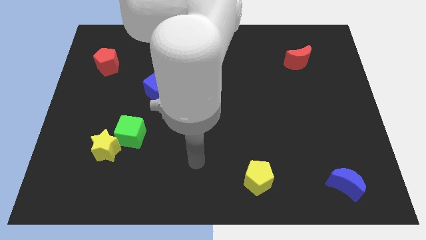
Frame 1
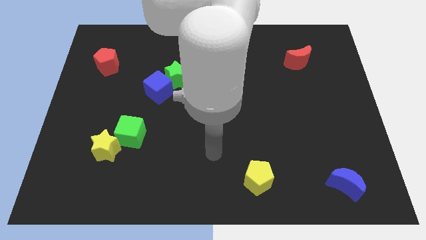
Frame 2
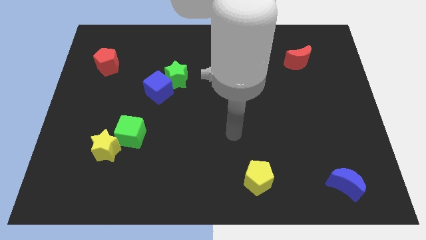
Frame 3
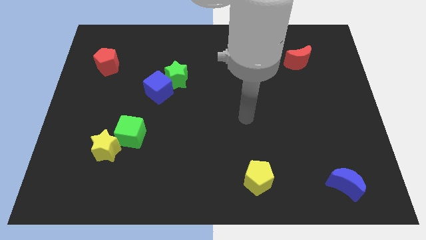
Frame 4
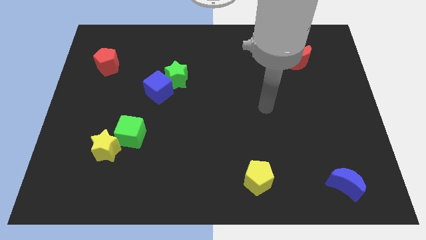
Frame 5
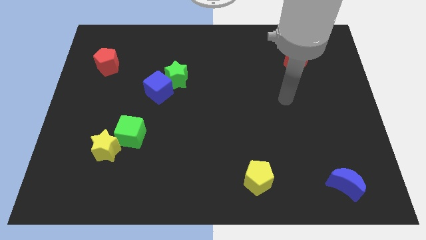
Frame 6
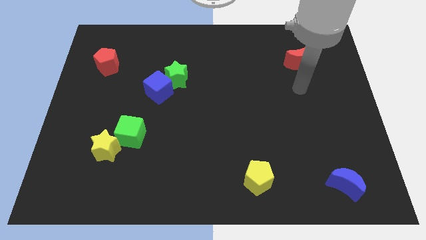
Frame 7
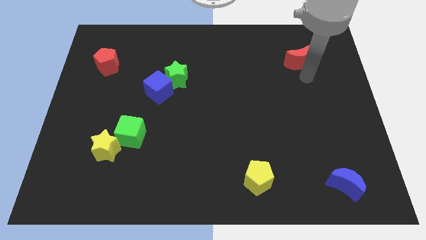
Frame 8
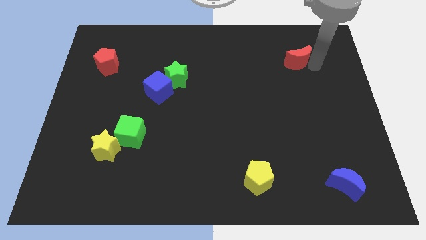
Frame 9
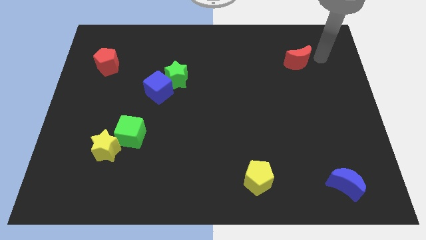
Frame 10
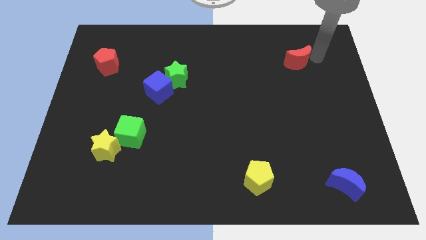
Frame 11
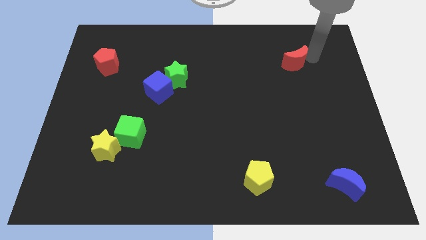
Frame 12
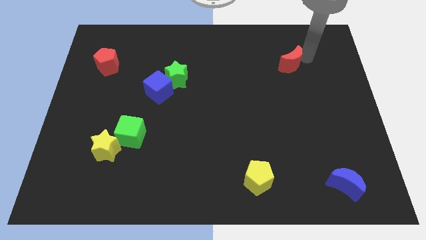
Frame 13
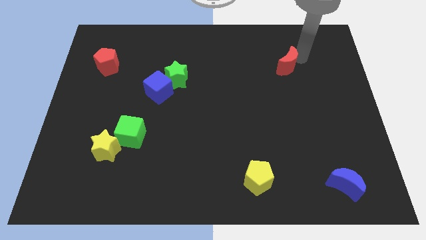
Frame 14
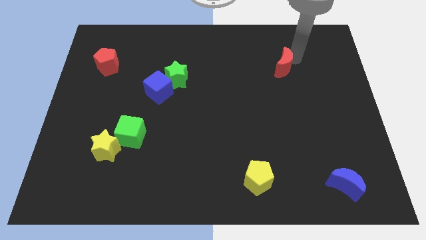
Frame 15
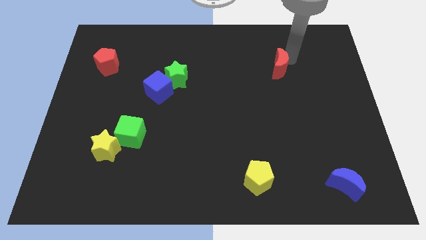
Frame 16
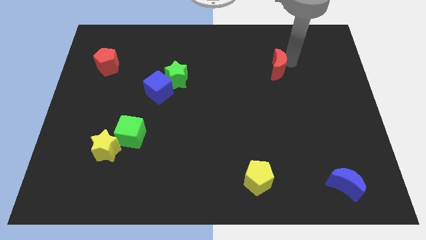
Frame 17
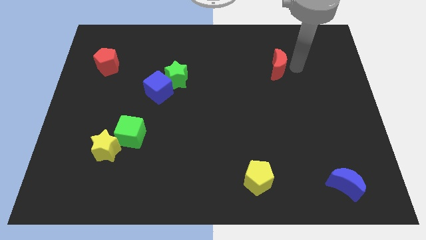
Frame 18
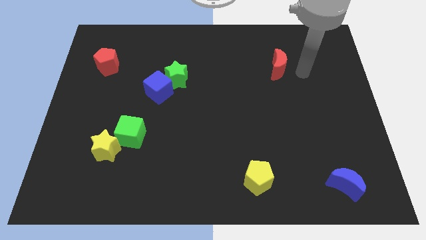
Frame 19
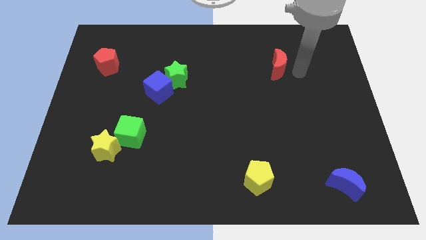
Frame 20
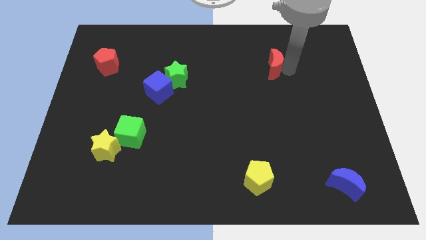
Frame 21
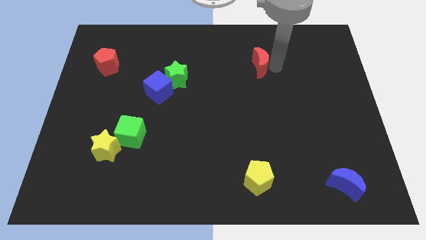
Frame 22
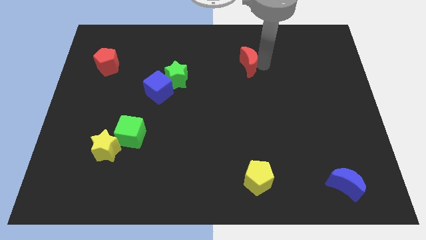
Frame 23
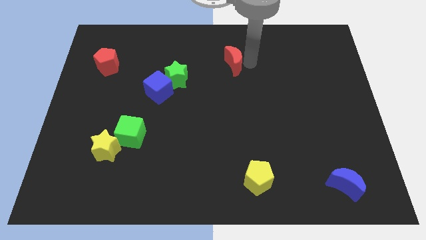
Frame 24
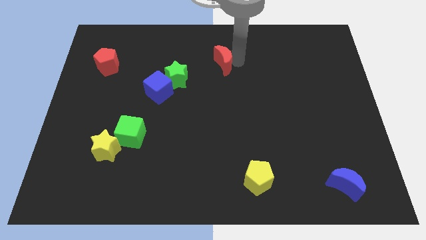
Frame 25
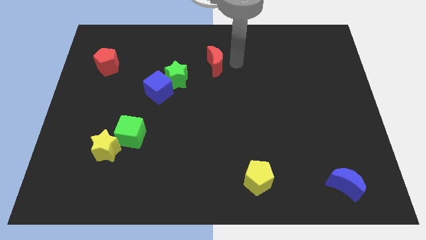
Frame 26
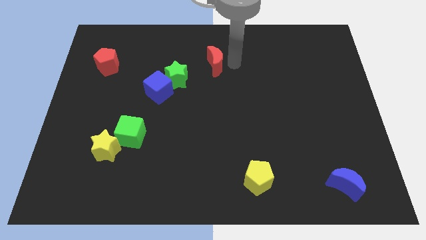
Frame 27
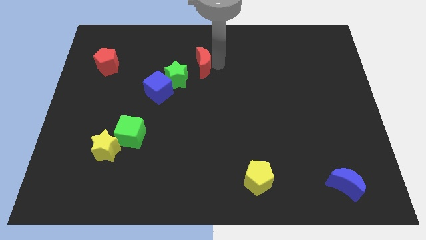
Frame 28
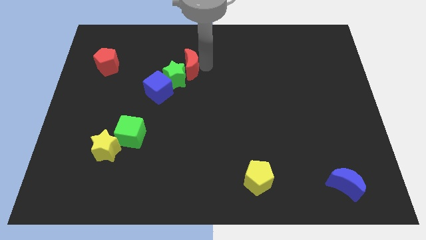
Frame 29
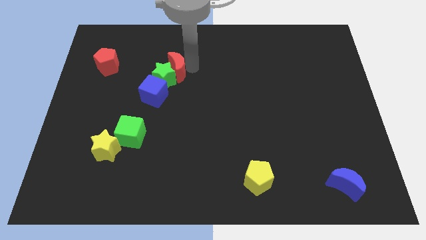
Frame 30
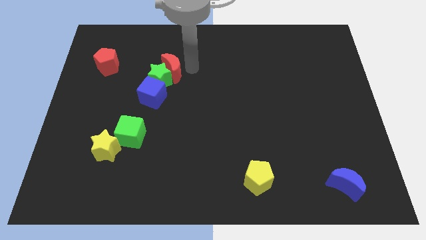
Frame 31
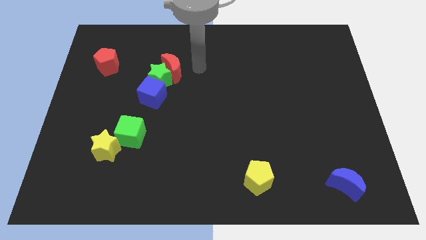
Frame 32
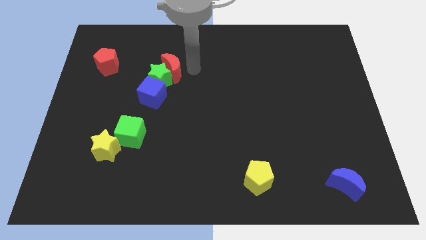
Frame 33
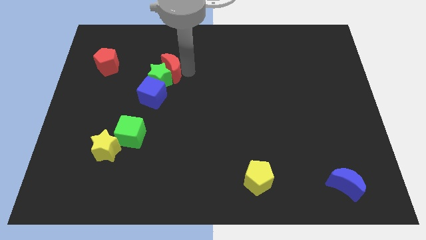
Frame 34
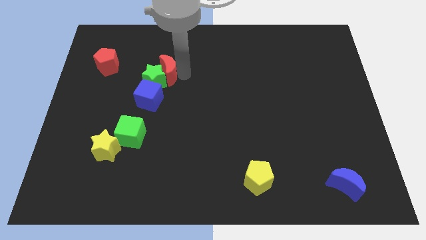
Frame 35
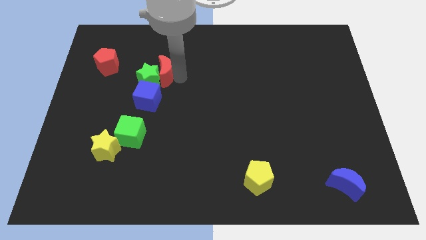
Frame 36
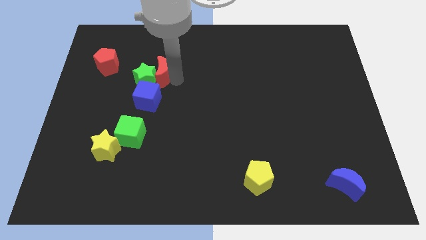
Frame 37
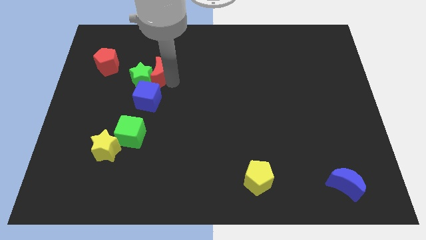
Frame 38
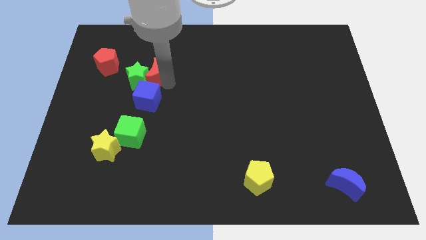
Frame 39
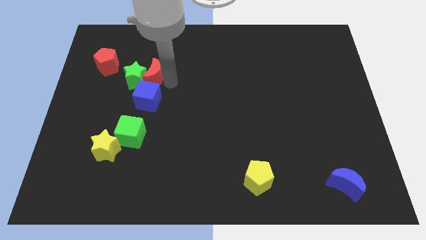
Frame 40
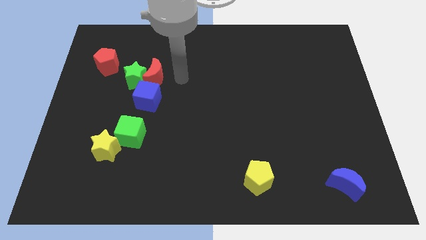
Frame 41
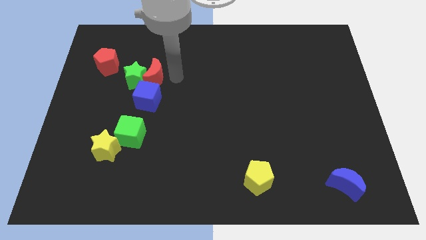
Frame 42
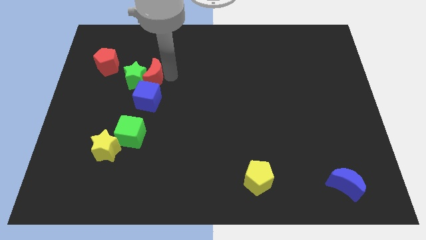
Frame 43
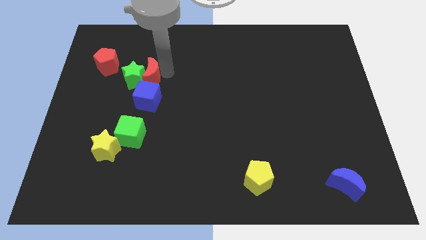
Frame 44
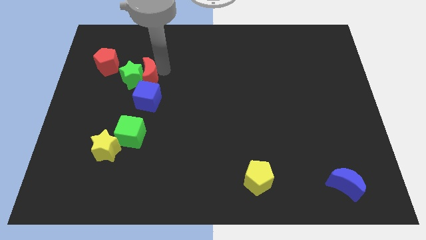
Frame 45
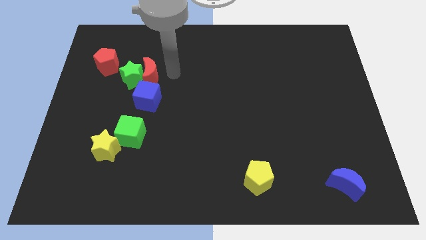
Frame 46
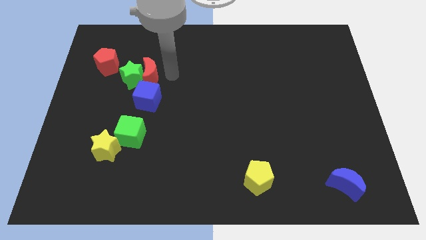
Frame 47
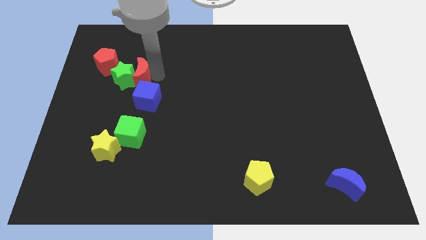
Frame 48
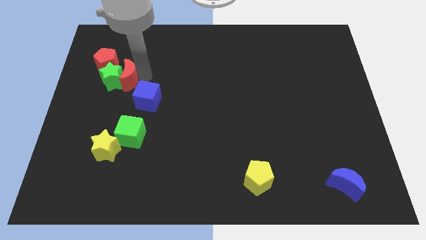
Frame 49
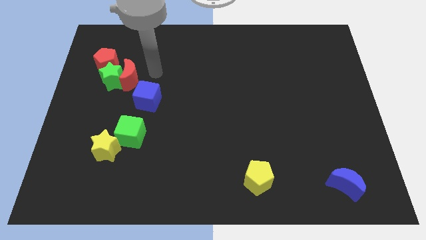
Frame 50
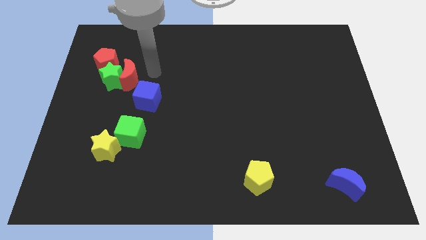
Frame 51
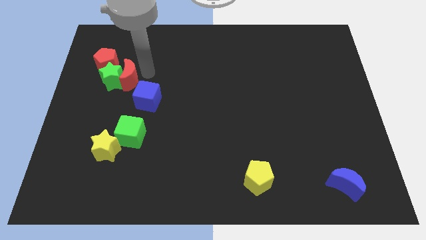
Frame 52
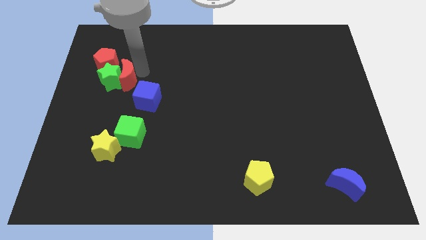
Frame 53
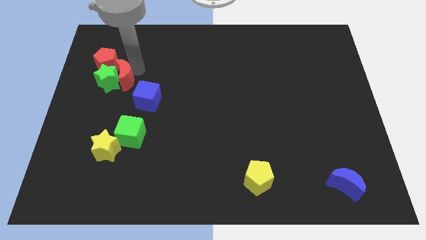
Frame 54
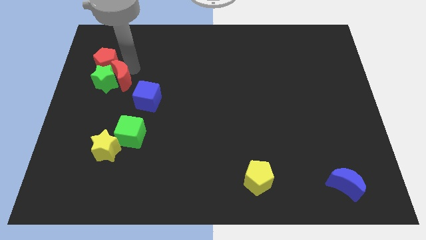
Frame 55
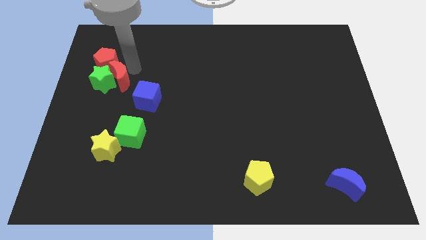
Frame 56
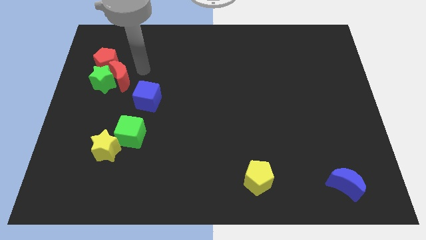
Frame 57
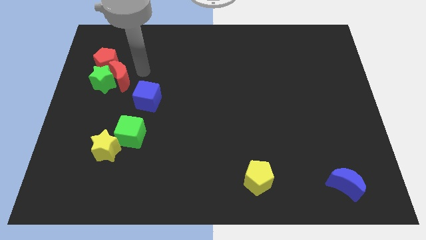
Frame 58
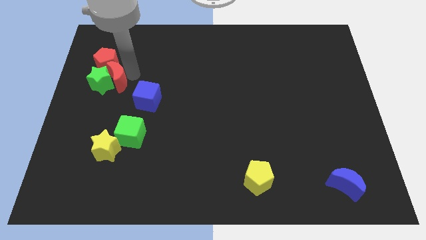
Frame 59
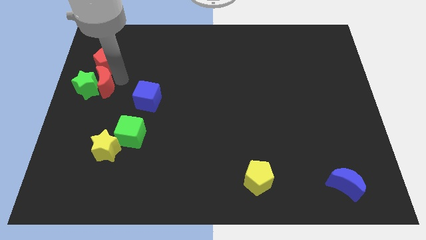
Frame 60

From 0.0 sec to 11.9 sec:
push the red moon to the left side of the board

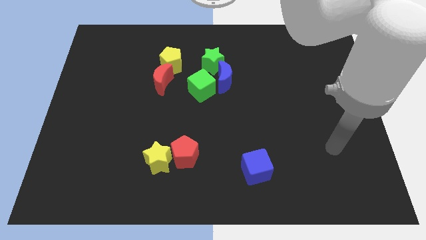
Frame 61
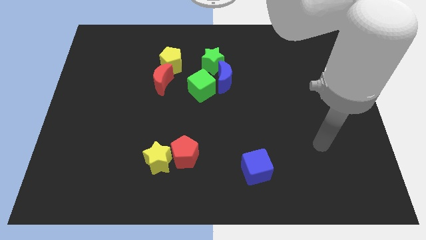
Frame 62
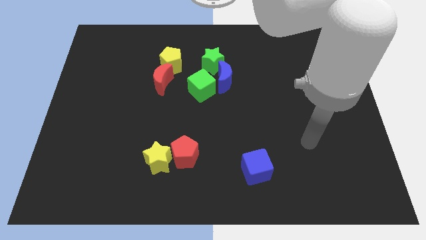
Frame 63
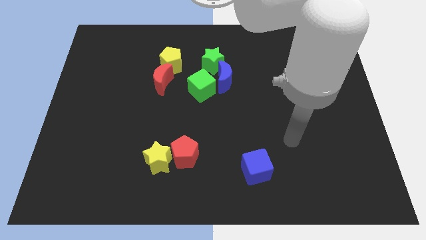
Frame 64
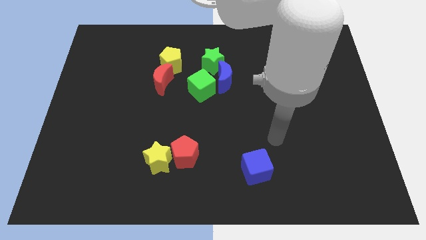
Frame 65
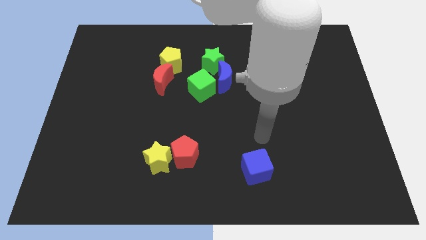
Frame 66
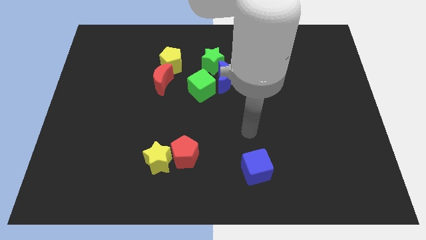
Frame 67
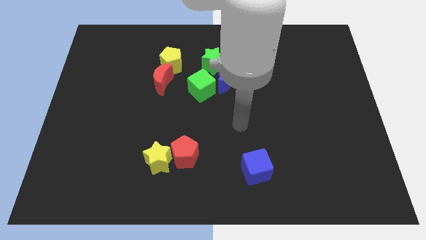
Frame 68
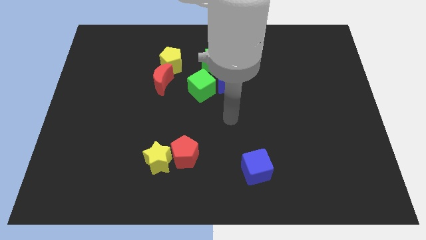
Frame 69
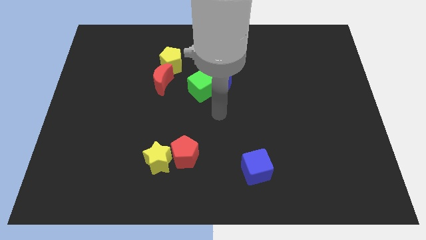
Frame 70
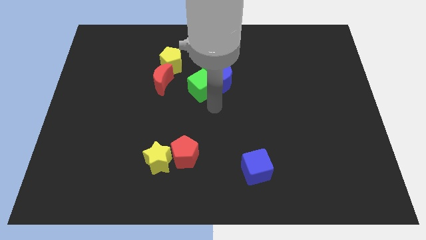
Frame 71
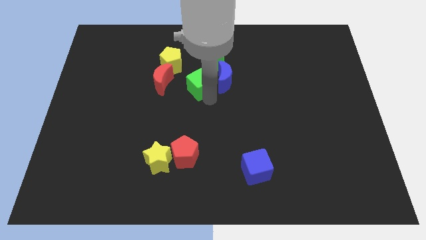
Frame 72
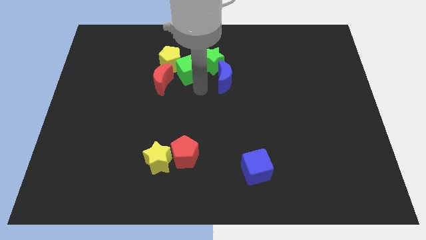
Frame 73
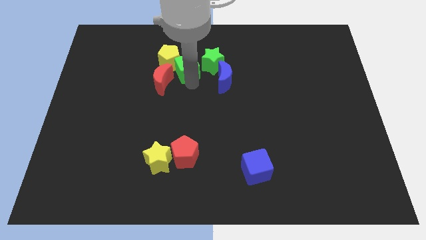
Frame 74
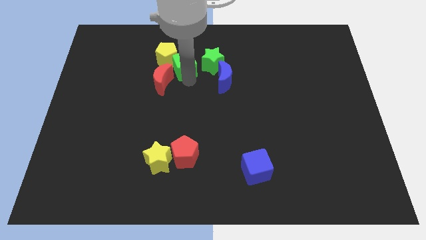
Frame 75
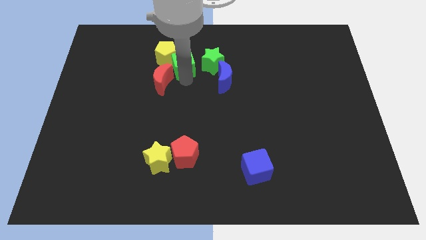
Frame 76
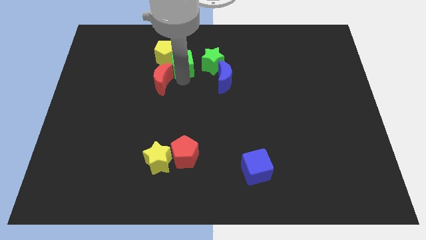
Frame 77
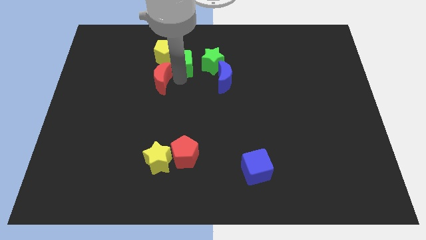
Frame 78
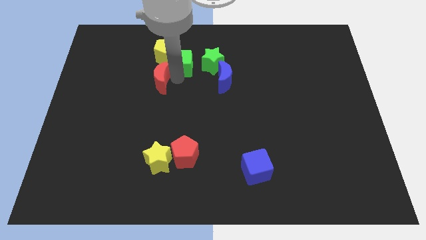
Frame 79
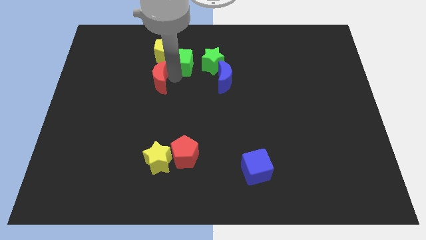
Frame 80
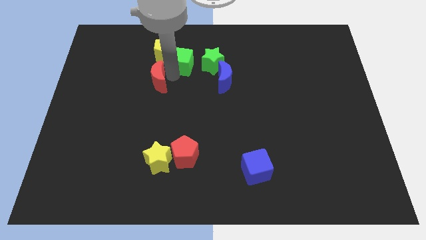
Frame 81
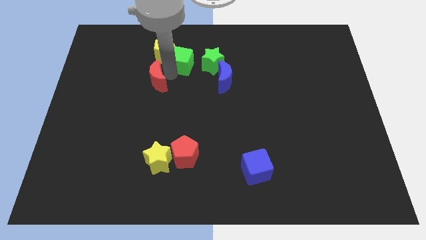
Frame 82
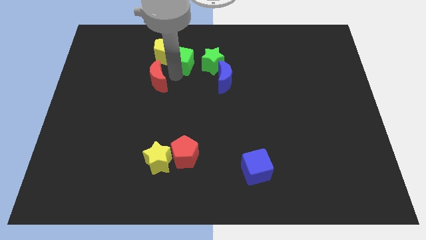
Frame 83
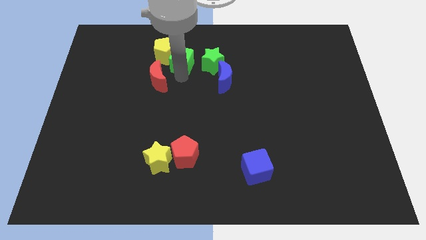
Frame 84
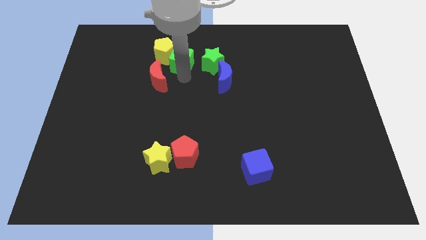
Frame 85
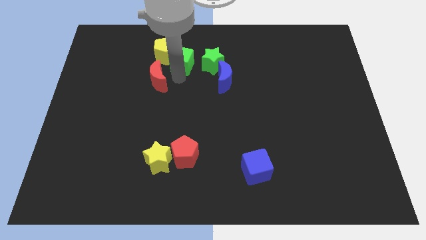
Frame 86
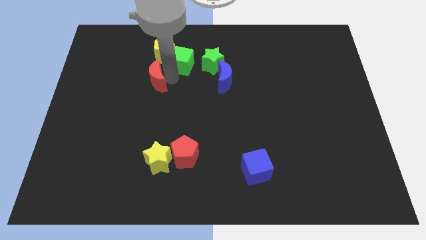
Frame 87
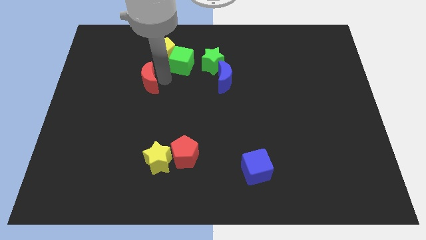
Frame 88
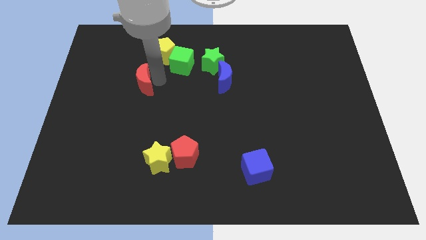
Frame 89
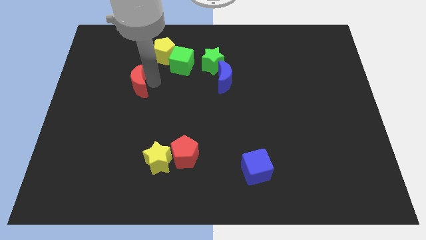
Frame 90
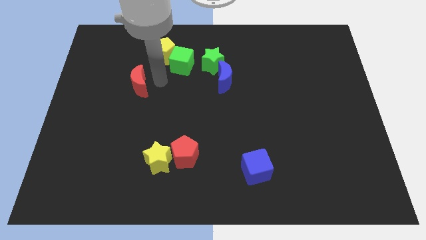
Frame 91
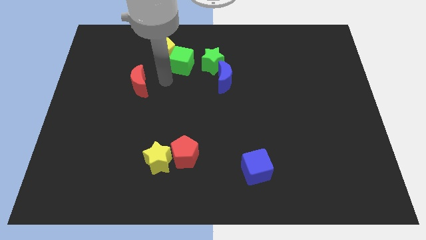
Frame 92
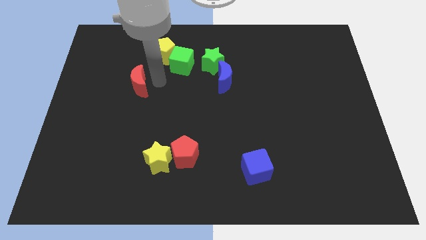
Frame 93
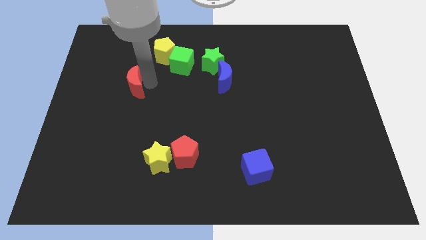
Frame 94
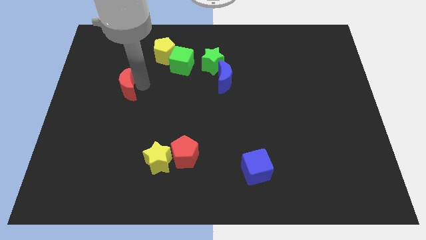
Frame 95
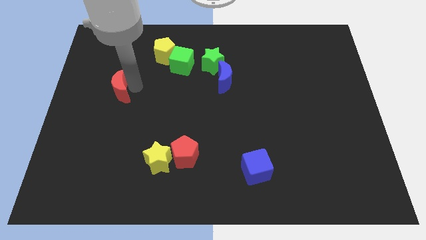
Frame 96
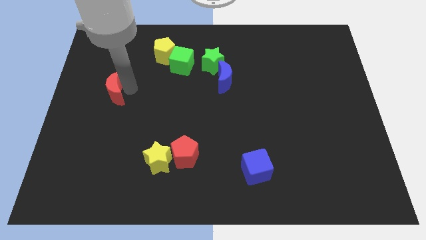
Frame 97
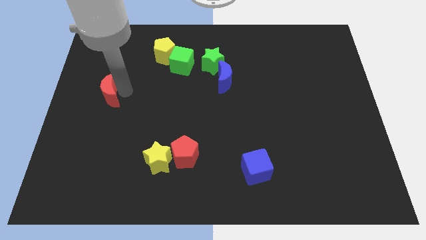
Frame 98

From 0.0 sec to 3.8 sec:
move the red moon to the center left
